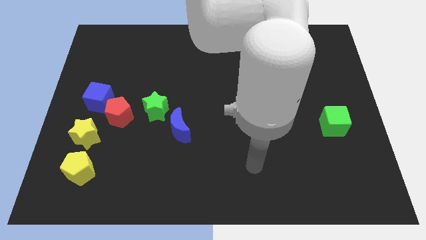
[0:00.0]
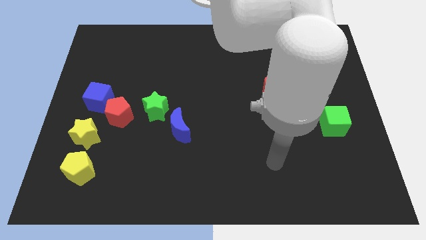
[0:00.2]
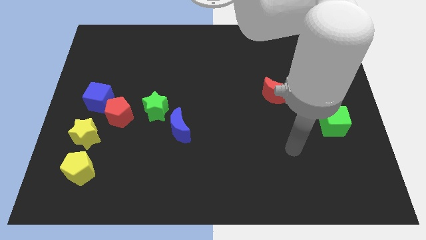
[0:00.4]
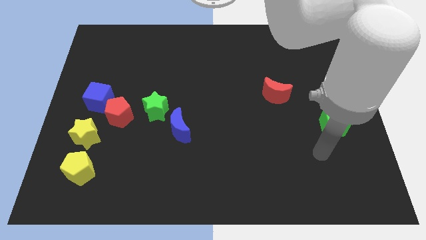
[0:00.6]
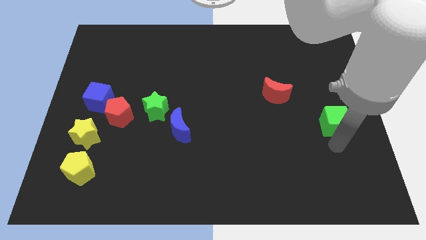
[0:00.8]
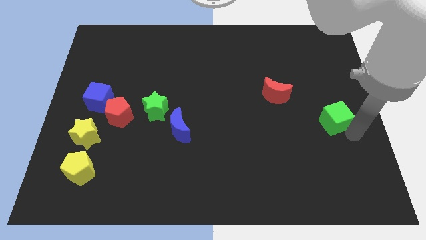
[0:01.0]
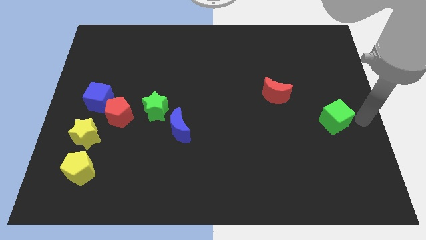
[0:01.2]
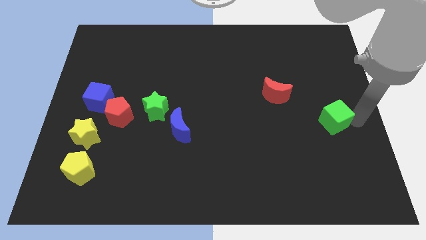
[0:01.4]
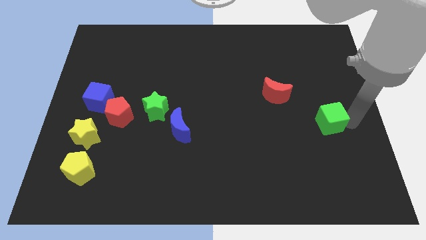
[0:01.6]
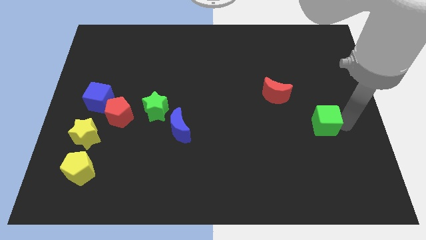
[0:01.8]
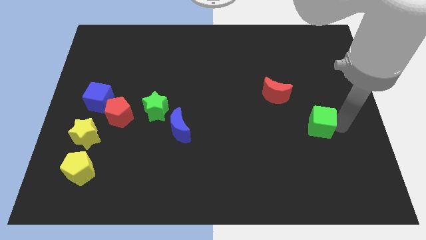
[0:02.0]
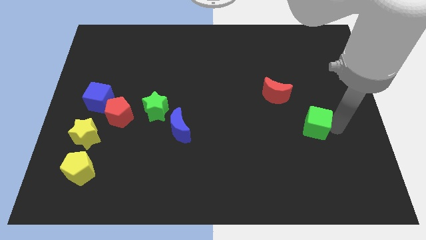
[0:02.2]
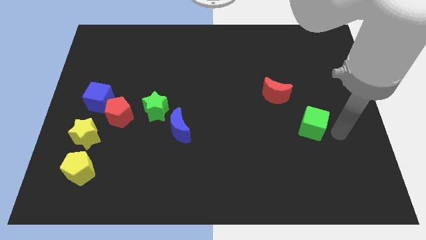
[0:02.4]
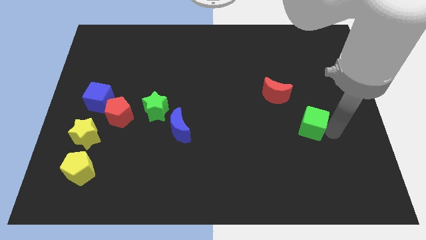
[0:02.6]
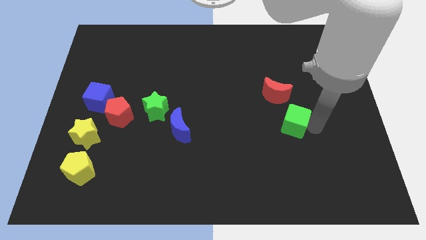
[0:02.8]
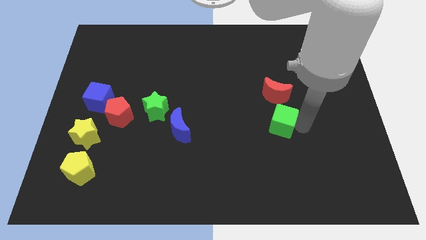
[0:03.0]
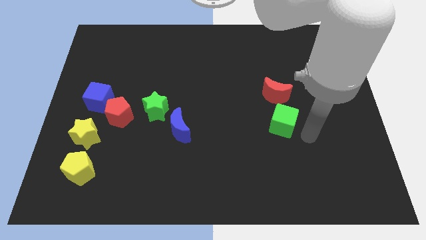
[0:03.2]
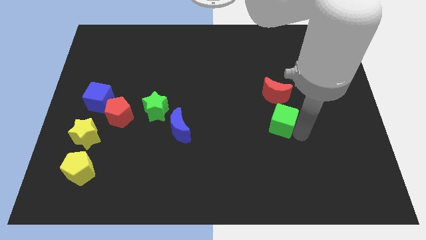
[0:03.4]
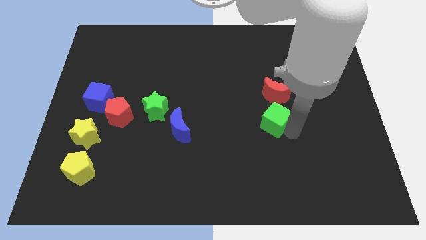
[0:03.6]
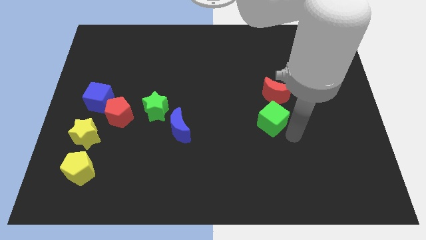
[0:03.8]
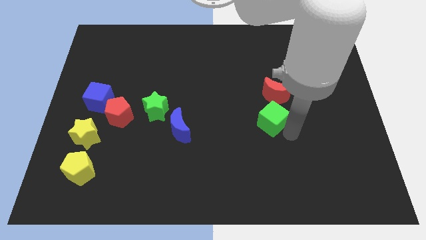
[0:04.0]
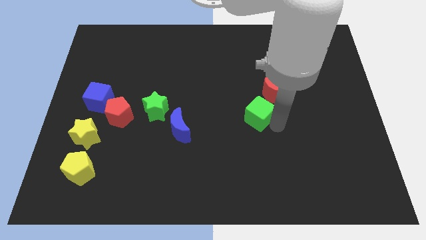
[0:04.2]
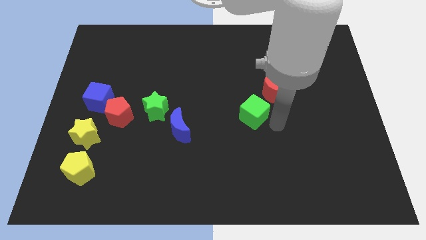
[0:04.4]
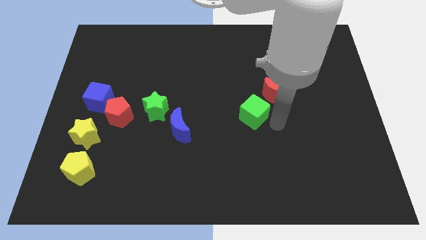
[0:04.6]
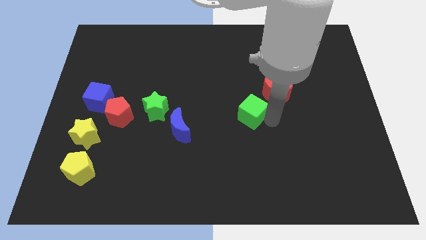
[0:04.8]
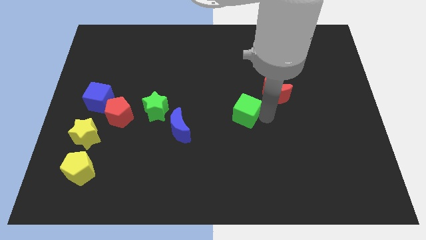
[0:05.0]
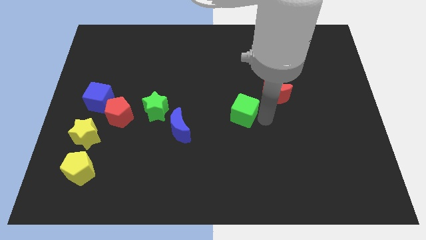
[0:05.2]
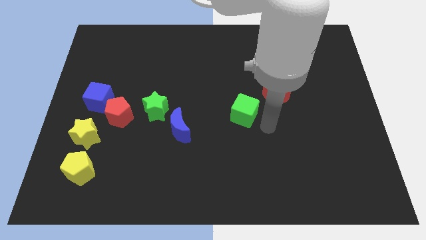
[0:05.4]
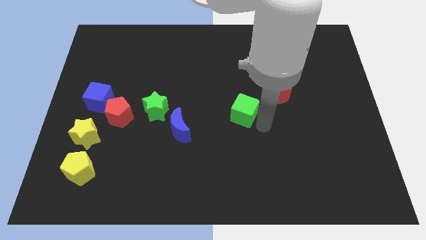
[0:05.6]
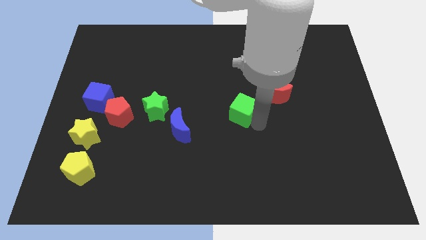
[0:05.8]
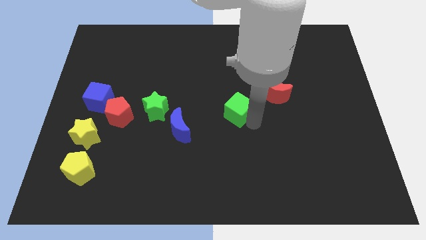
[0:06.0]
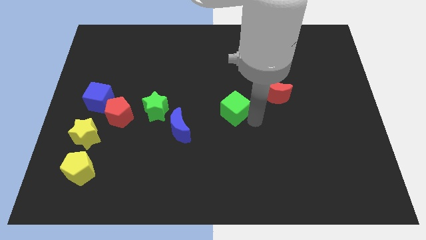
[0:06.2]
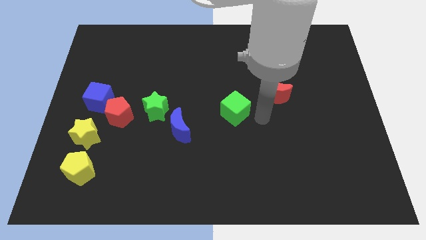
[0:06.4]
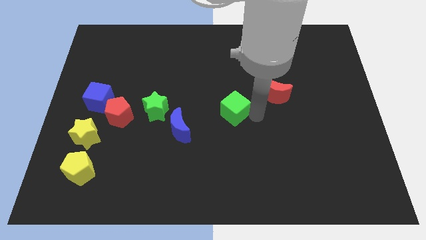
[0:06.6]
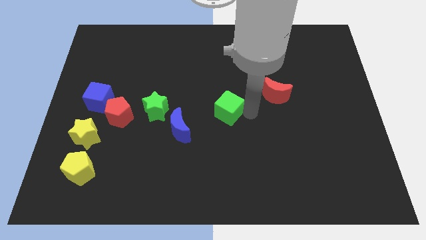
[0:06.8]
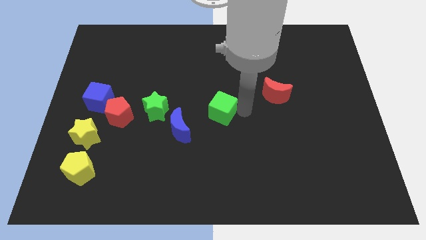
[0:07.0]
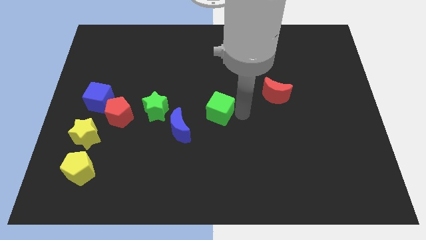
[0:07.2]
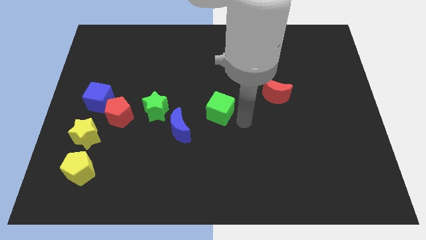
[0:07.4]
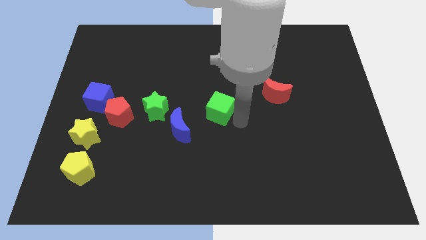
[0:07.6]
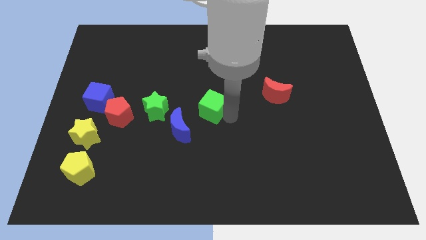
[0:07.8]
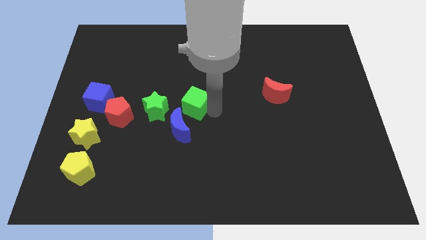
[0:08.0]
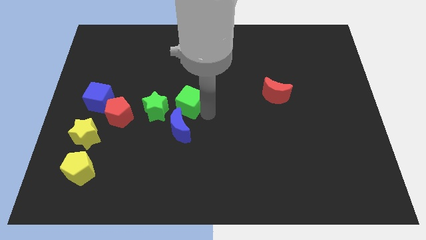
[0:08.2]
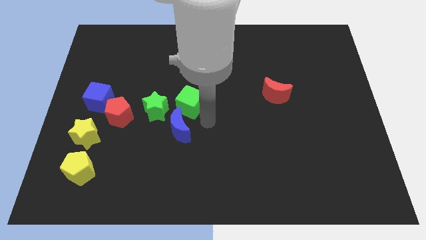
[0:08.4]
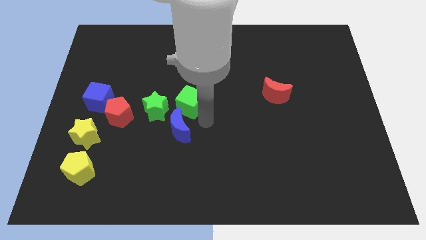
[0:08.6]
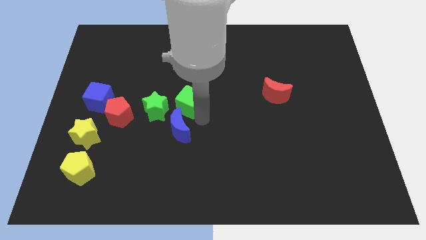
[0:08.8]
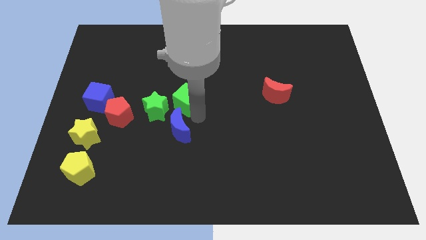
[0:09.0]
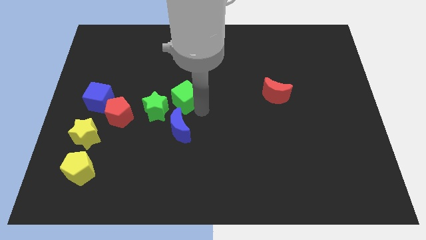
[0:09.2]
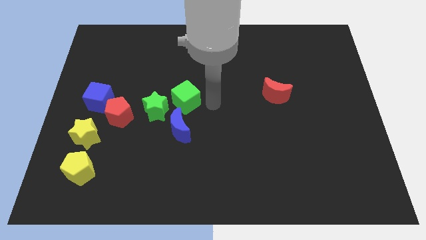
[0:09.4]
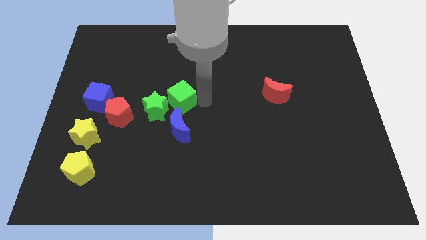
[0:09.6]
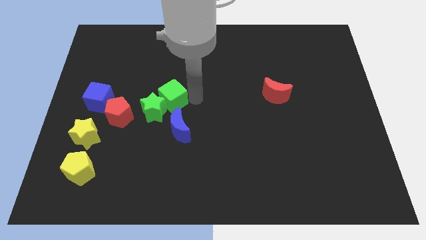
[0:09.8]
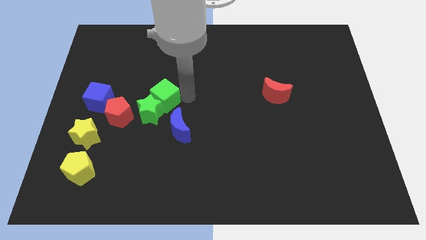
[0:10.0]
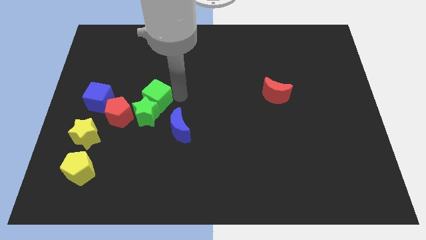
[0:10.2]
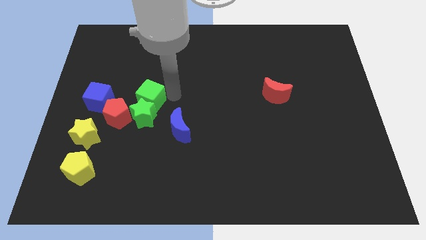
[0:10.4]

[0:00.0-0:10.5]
move the green cube to the top left side of the green star

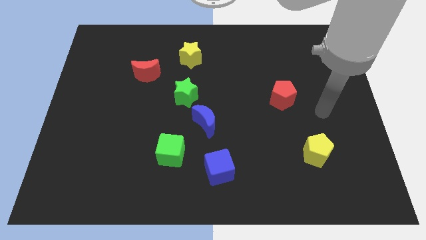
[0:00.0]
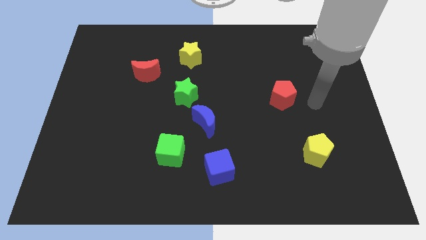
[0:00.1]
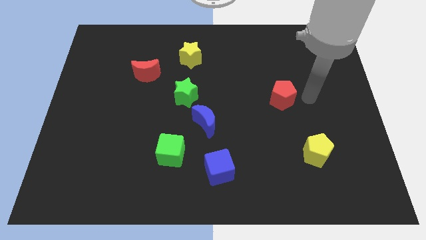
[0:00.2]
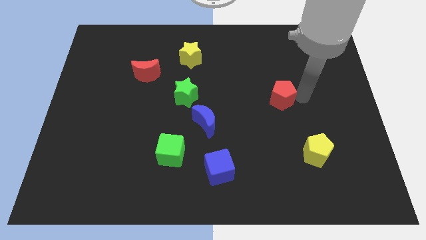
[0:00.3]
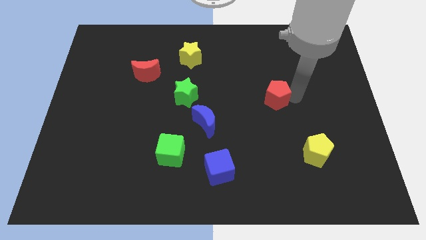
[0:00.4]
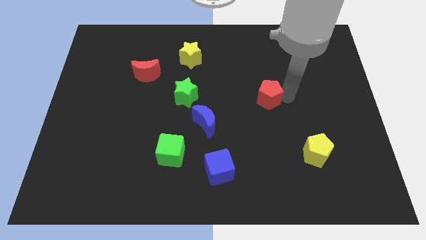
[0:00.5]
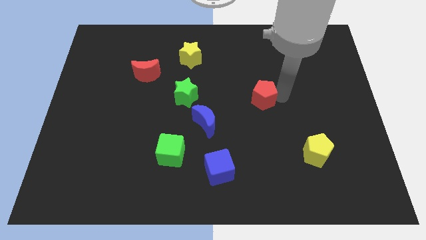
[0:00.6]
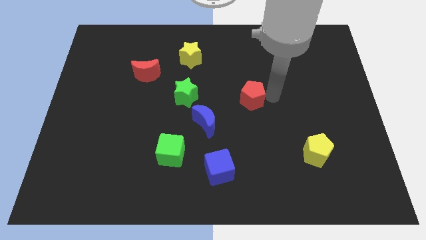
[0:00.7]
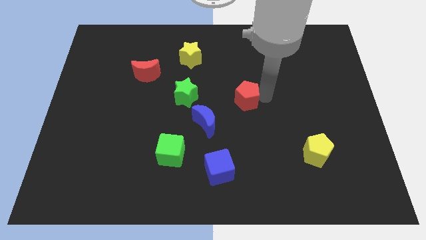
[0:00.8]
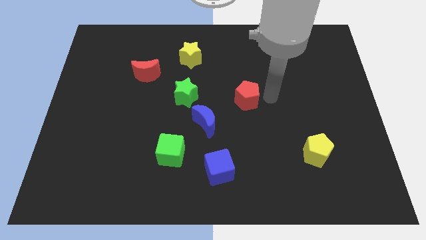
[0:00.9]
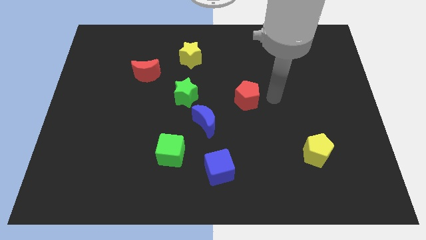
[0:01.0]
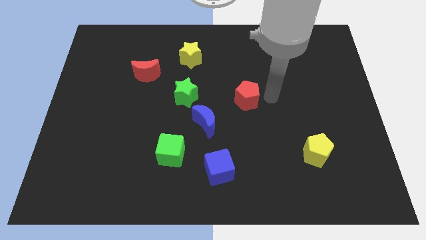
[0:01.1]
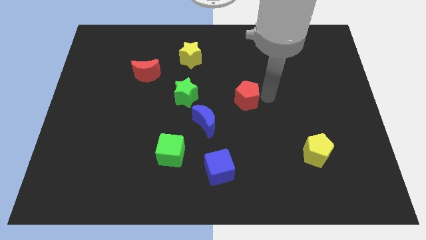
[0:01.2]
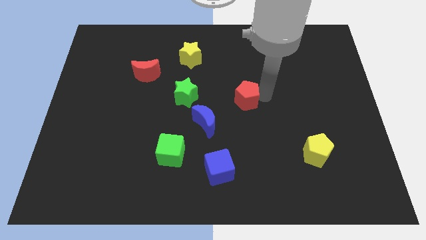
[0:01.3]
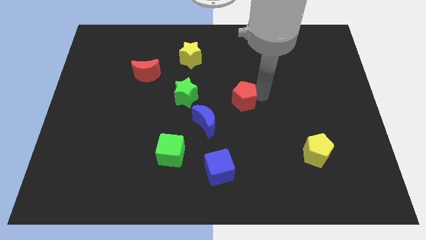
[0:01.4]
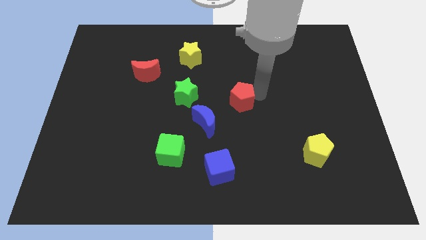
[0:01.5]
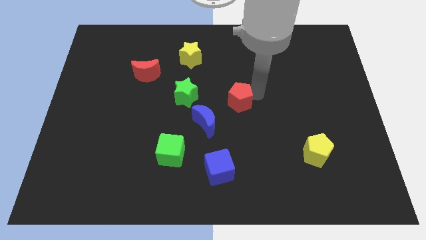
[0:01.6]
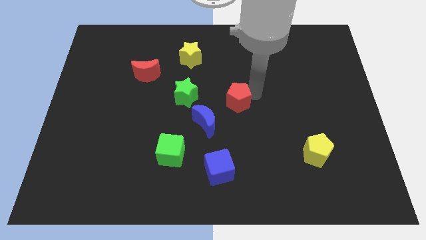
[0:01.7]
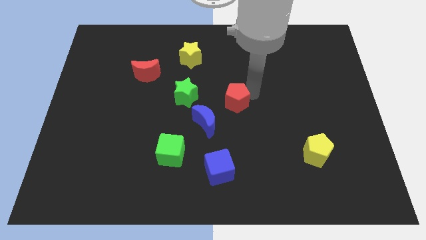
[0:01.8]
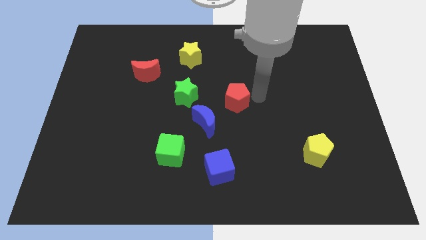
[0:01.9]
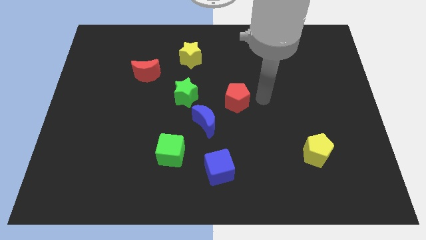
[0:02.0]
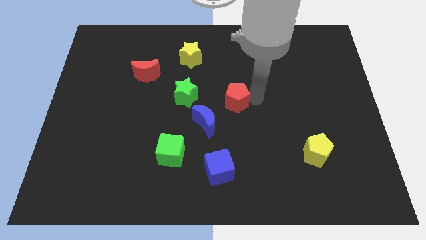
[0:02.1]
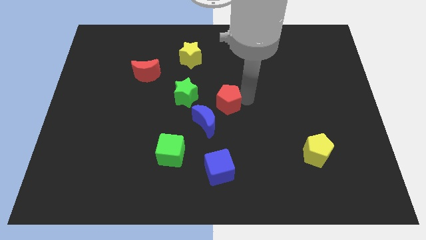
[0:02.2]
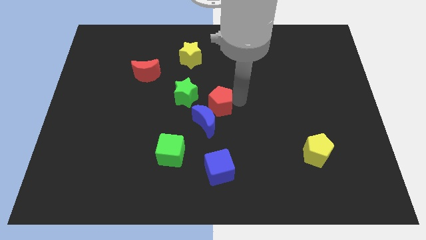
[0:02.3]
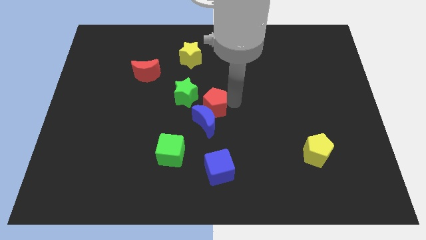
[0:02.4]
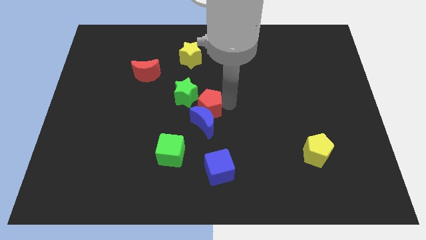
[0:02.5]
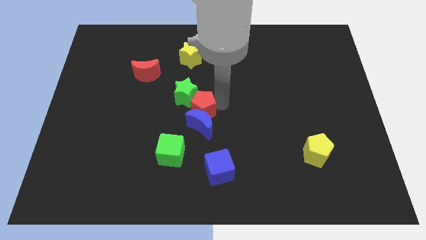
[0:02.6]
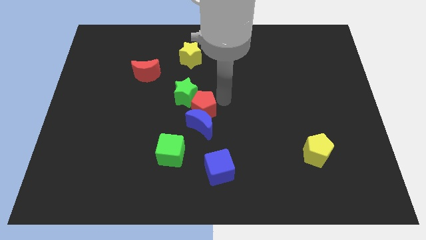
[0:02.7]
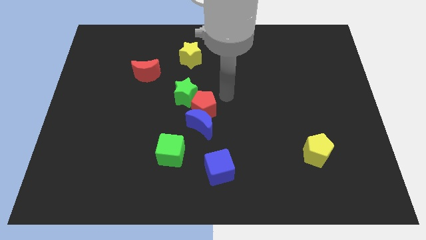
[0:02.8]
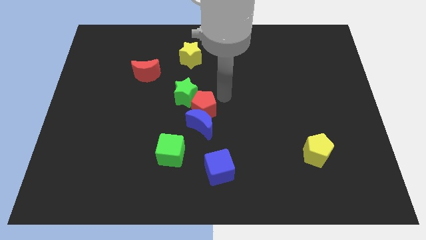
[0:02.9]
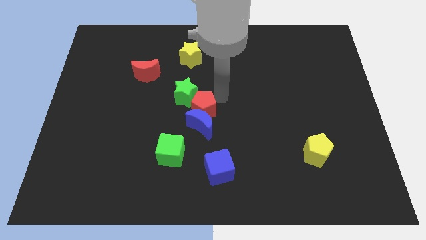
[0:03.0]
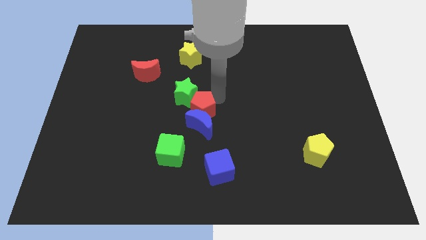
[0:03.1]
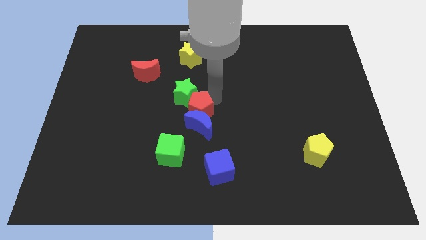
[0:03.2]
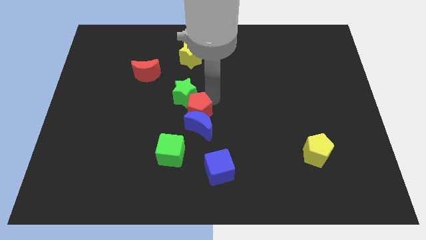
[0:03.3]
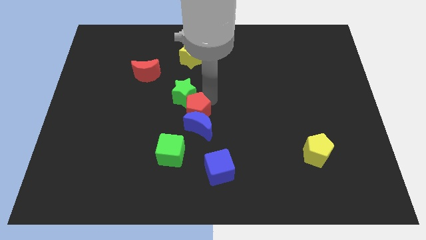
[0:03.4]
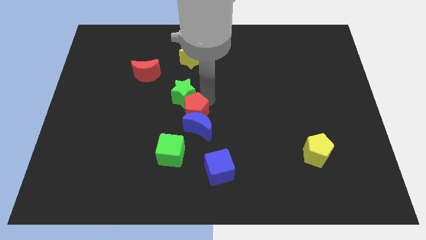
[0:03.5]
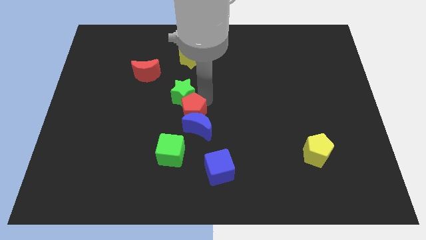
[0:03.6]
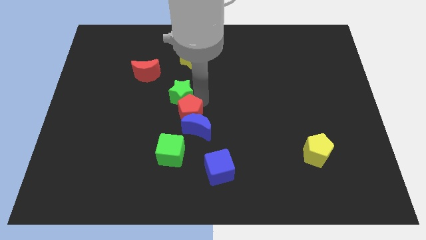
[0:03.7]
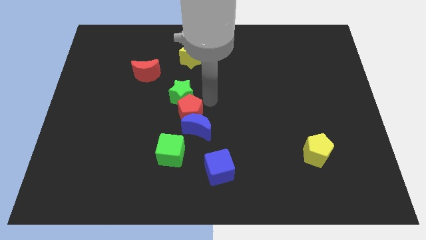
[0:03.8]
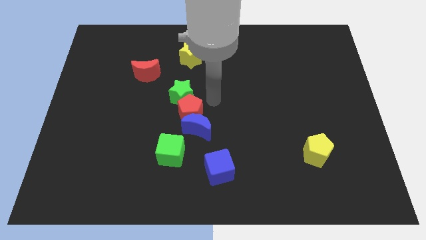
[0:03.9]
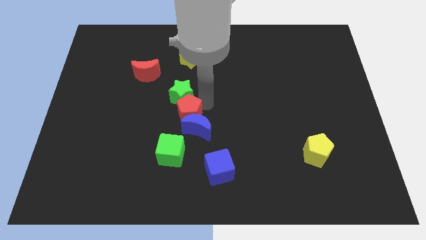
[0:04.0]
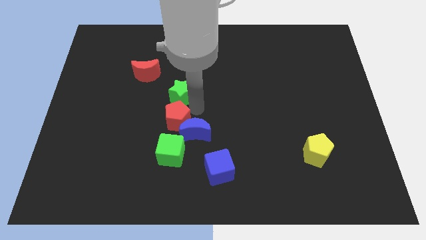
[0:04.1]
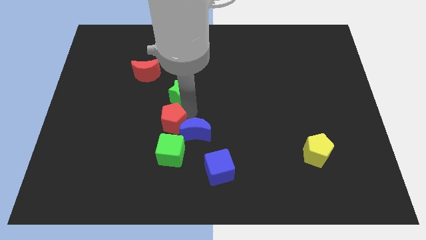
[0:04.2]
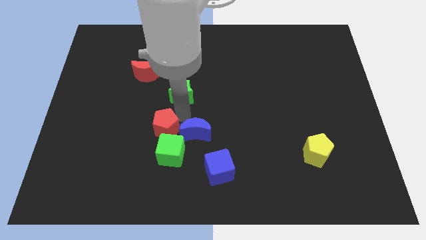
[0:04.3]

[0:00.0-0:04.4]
put the red pentagon to the top left of the green cube
